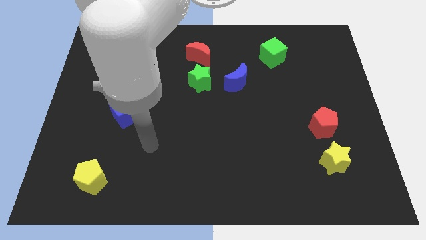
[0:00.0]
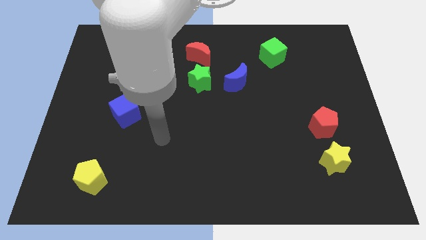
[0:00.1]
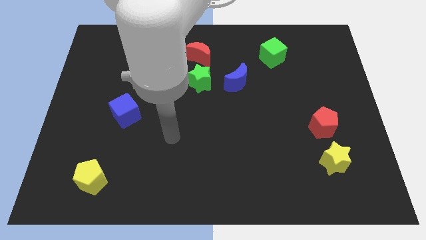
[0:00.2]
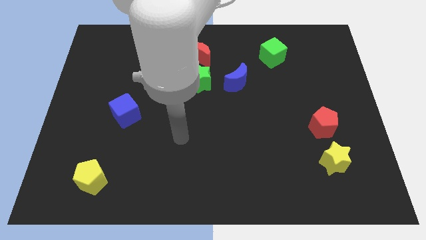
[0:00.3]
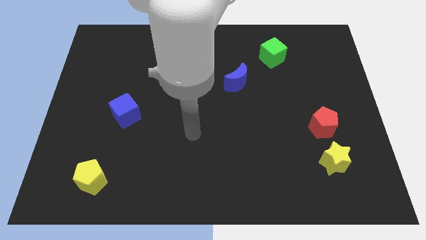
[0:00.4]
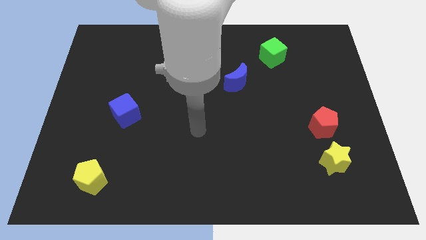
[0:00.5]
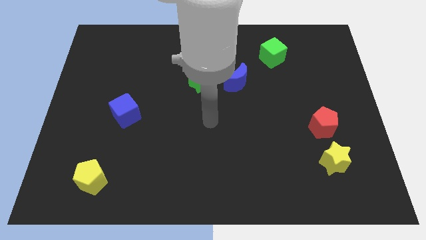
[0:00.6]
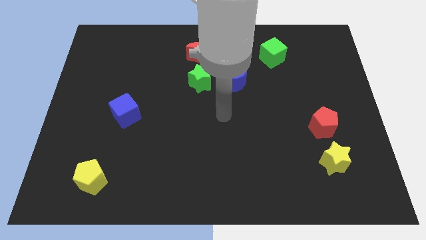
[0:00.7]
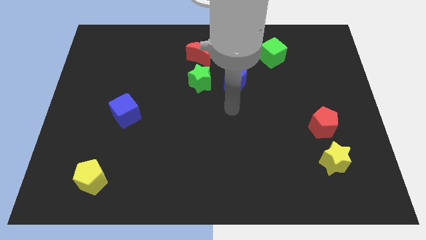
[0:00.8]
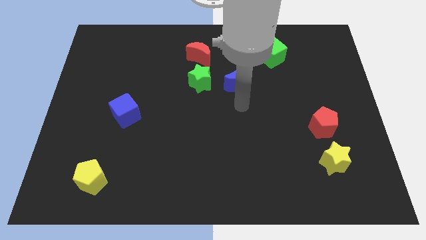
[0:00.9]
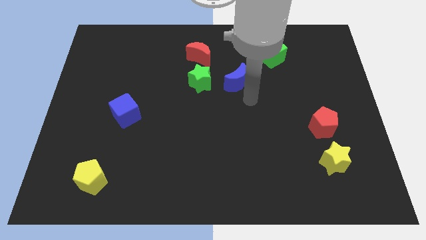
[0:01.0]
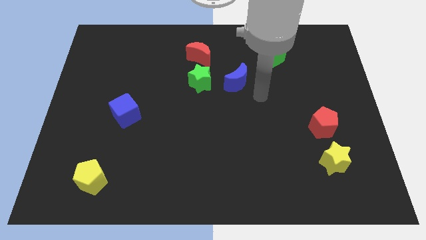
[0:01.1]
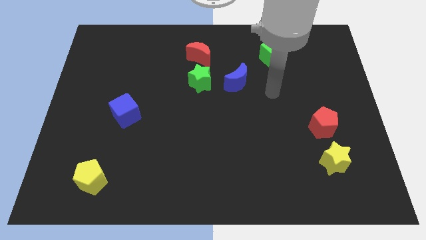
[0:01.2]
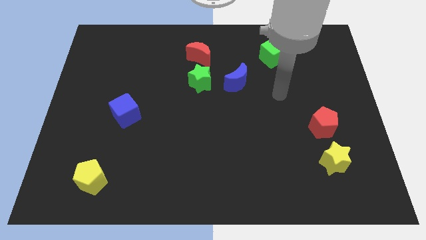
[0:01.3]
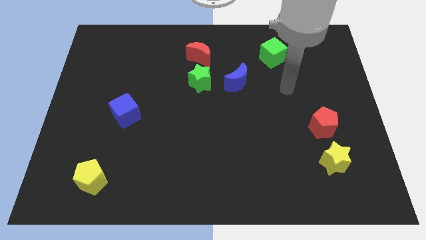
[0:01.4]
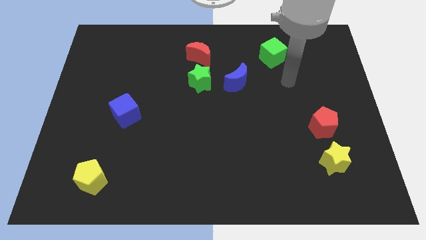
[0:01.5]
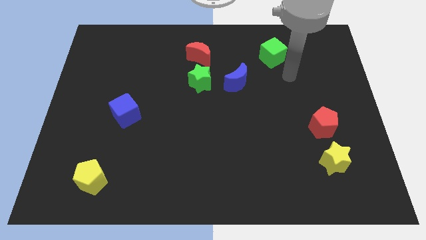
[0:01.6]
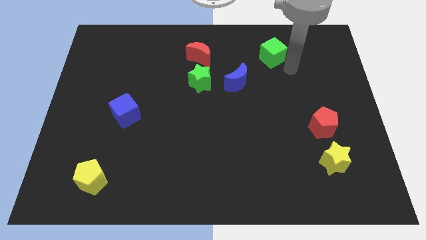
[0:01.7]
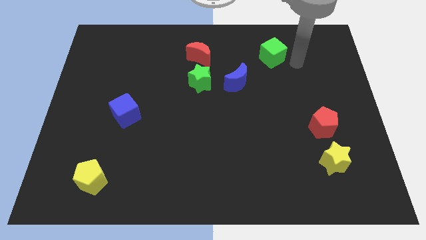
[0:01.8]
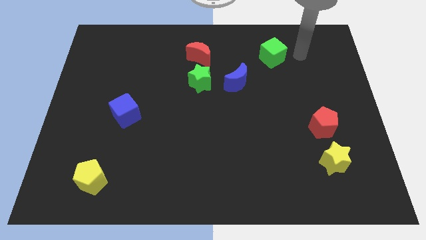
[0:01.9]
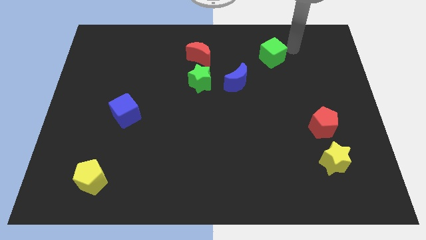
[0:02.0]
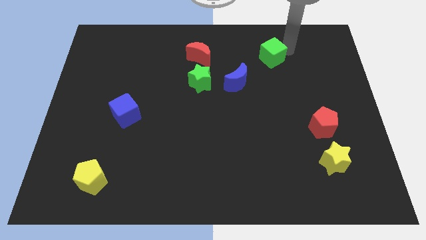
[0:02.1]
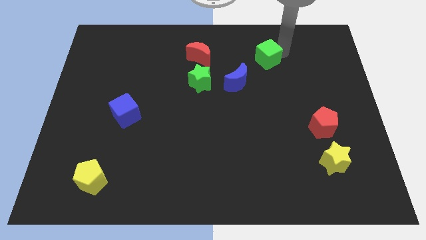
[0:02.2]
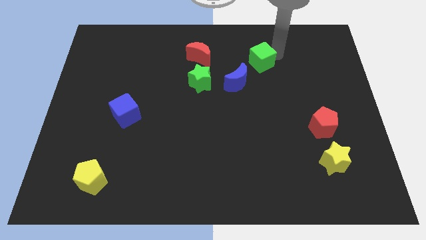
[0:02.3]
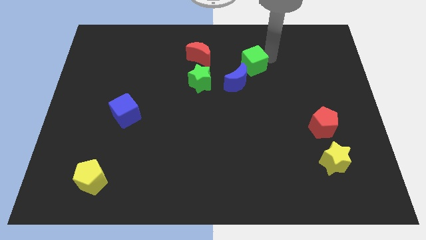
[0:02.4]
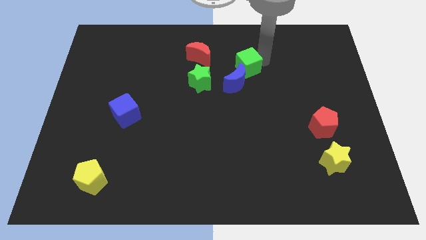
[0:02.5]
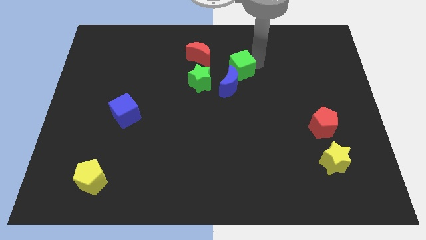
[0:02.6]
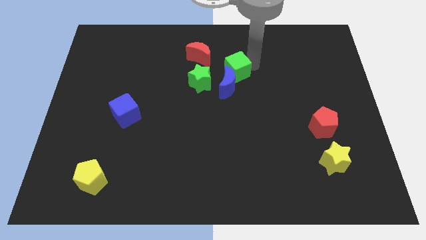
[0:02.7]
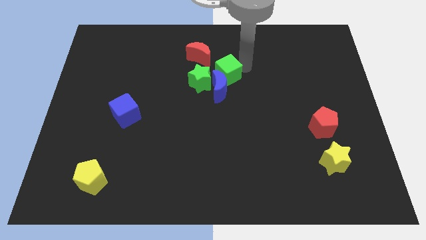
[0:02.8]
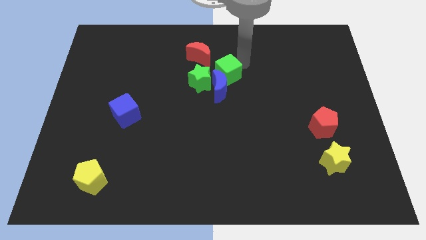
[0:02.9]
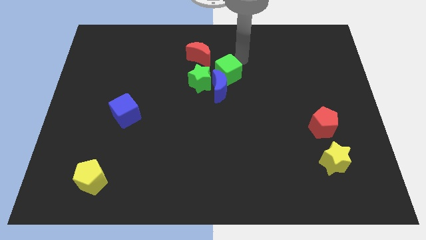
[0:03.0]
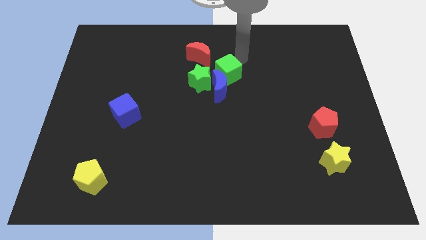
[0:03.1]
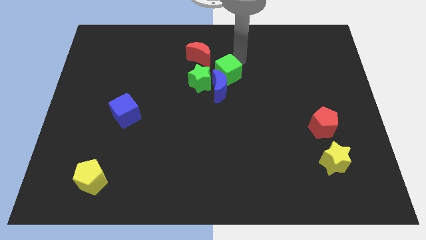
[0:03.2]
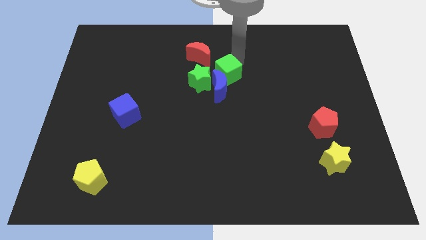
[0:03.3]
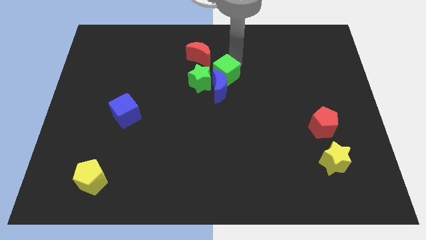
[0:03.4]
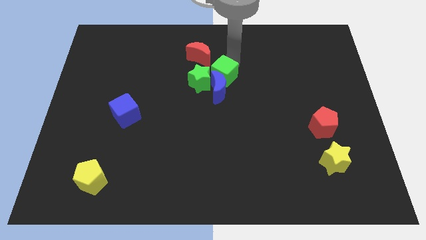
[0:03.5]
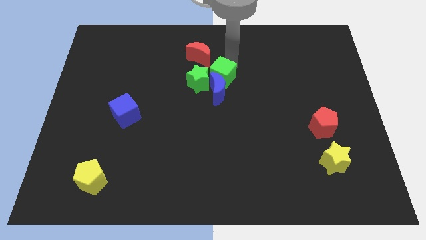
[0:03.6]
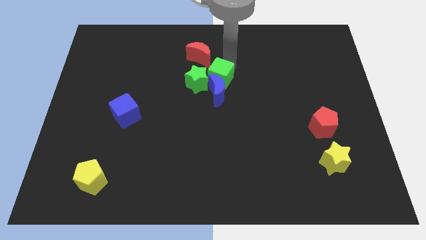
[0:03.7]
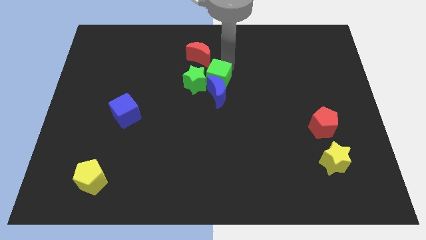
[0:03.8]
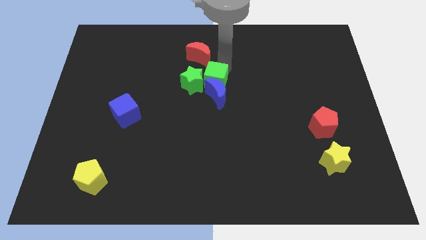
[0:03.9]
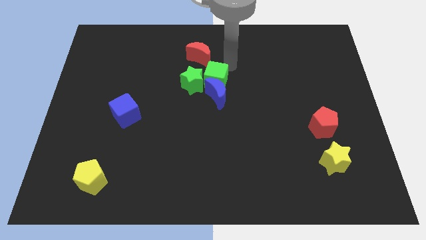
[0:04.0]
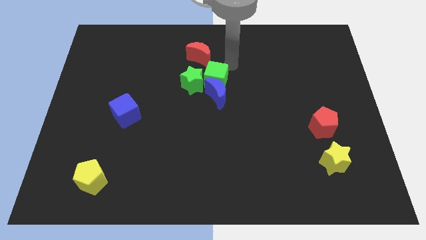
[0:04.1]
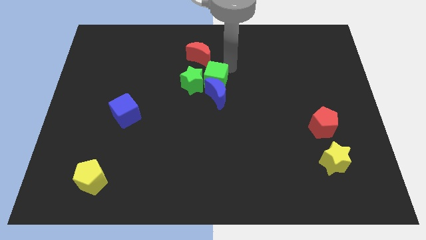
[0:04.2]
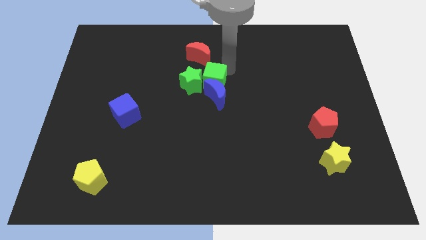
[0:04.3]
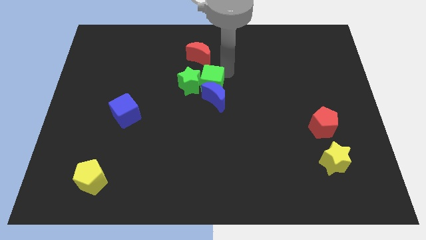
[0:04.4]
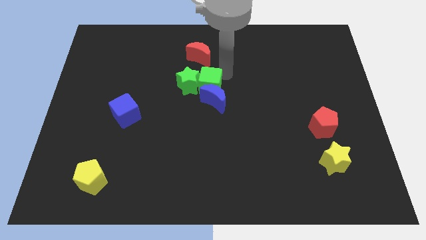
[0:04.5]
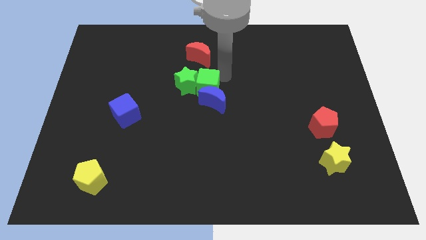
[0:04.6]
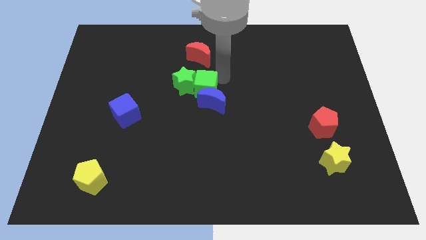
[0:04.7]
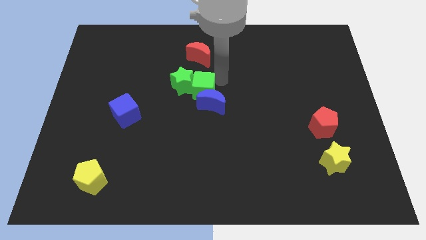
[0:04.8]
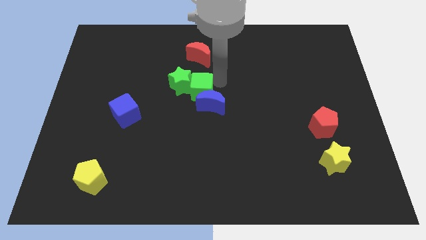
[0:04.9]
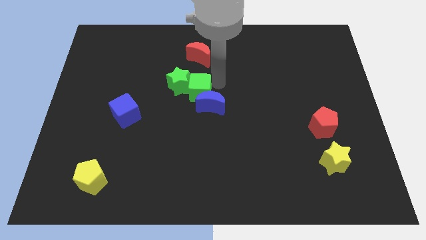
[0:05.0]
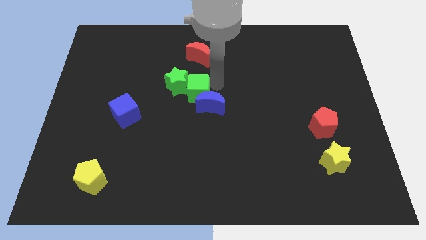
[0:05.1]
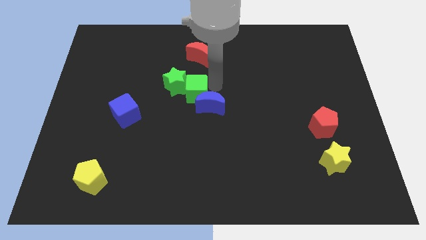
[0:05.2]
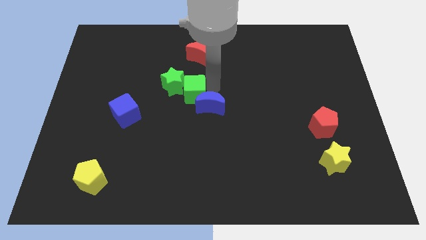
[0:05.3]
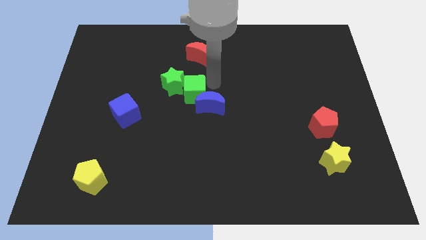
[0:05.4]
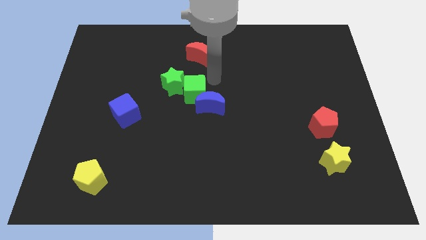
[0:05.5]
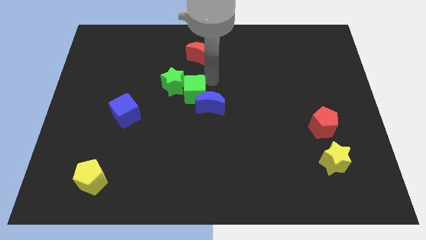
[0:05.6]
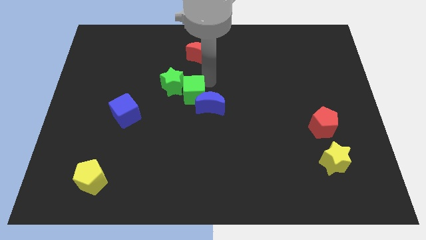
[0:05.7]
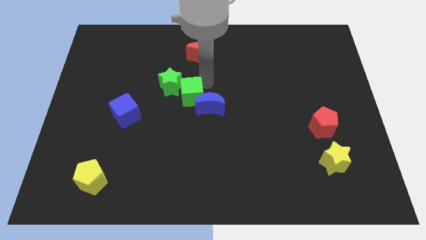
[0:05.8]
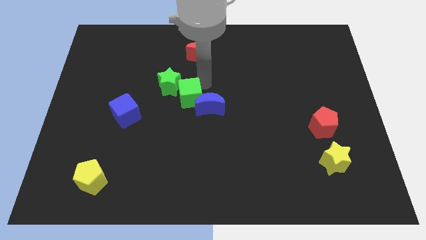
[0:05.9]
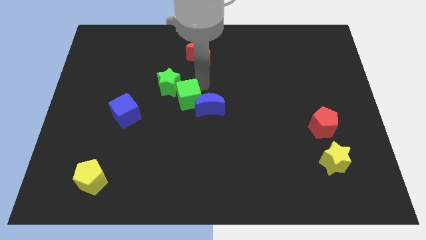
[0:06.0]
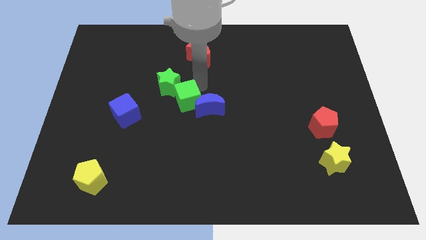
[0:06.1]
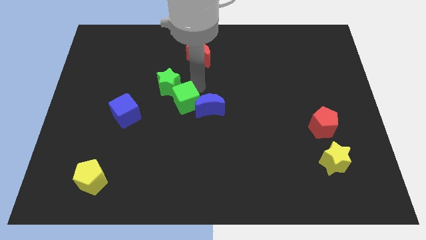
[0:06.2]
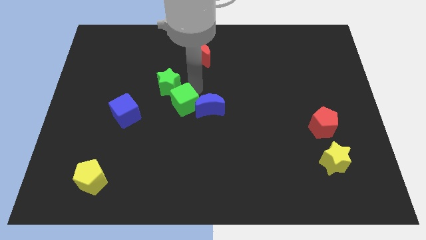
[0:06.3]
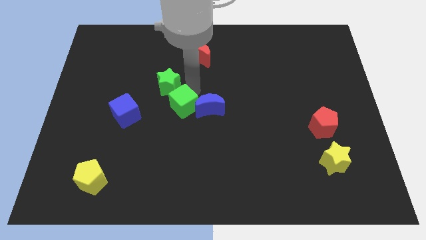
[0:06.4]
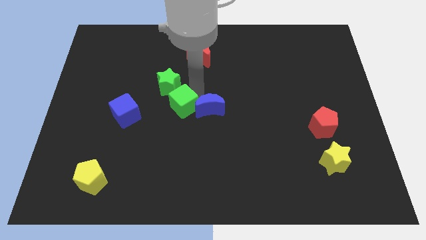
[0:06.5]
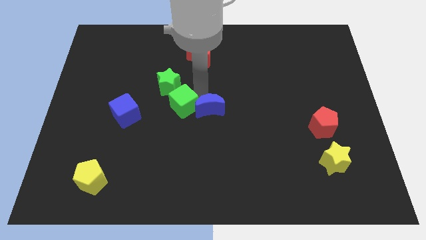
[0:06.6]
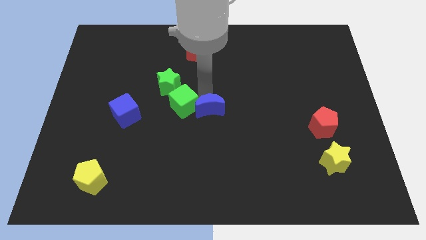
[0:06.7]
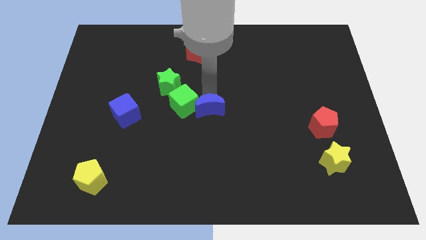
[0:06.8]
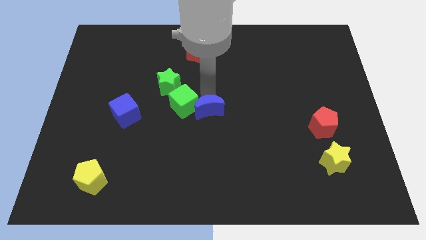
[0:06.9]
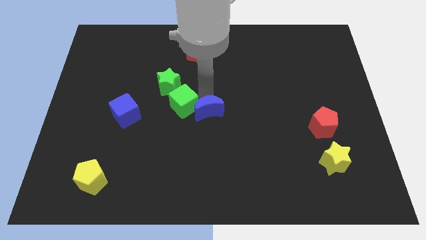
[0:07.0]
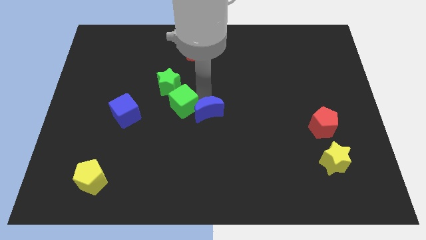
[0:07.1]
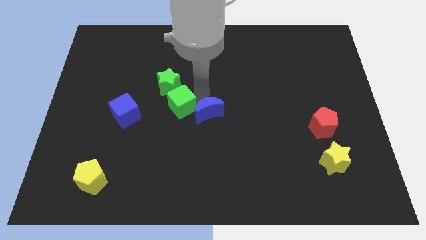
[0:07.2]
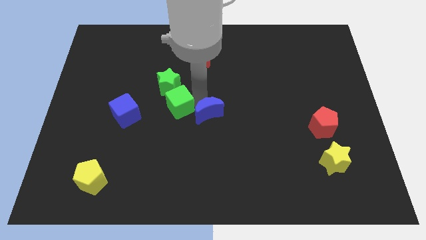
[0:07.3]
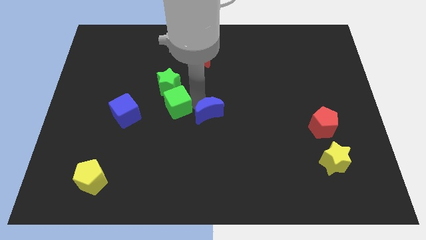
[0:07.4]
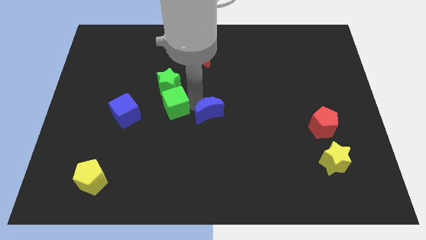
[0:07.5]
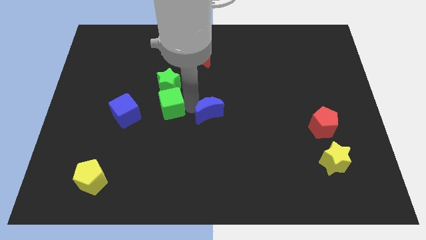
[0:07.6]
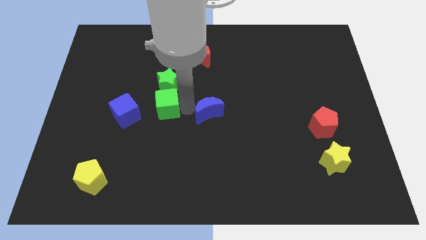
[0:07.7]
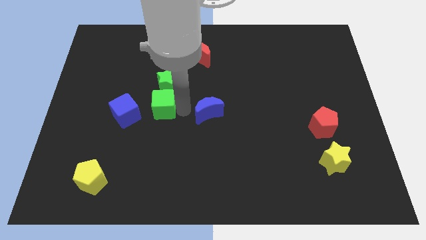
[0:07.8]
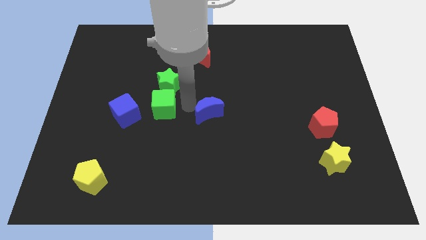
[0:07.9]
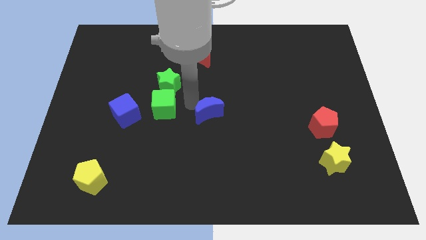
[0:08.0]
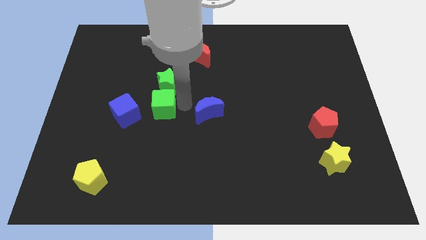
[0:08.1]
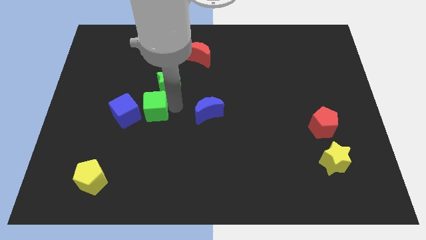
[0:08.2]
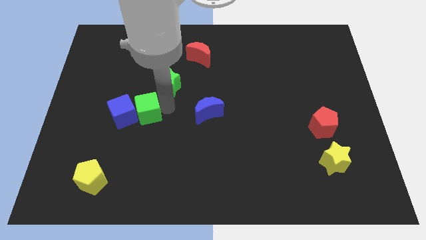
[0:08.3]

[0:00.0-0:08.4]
push the green cube to the blue cube
